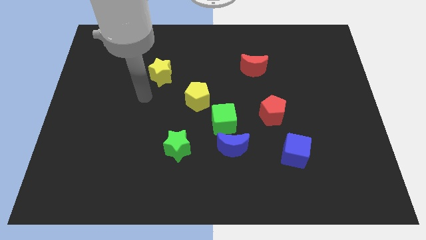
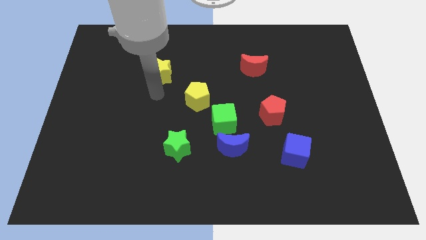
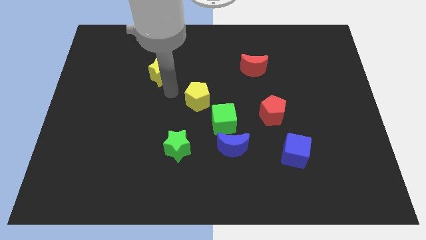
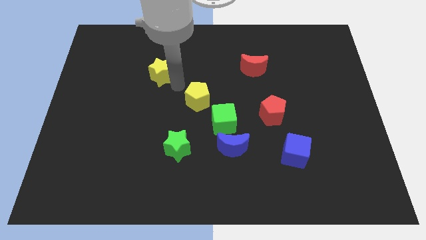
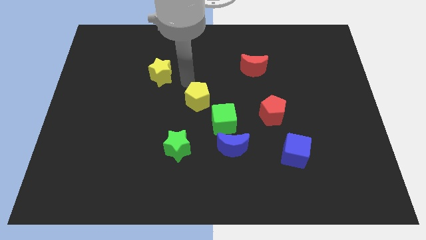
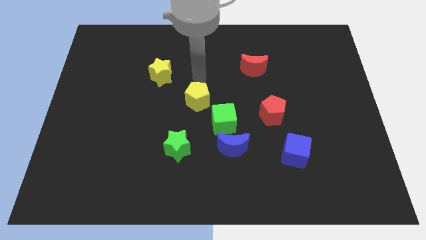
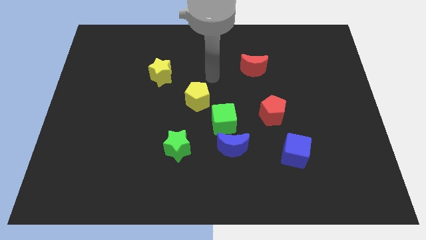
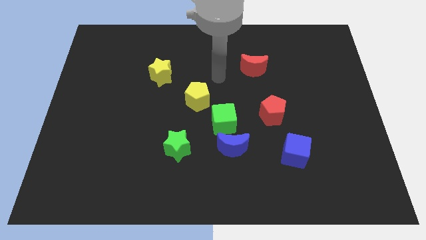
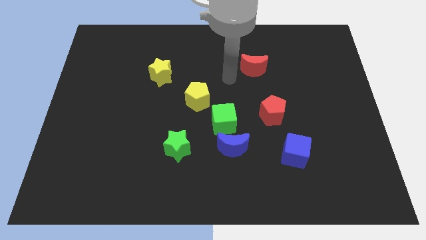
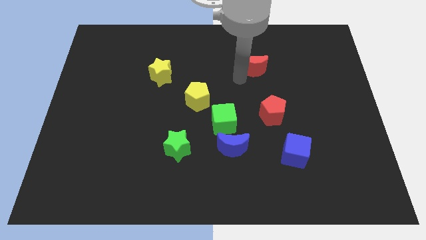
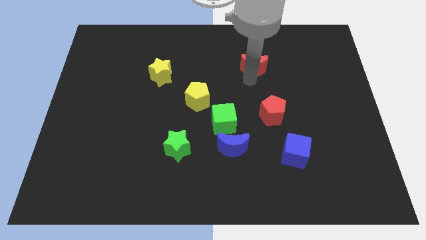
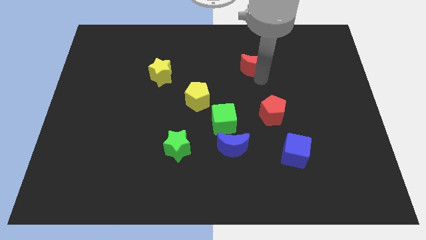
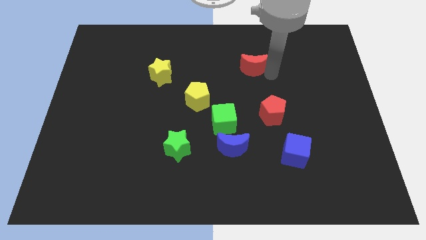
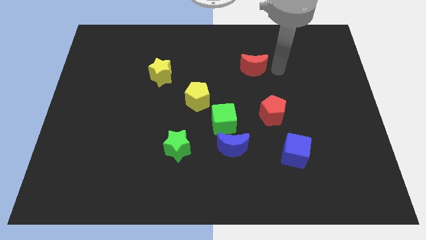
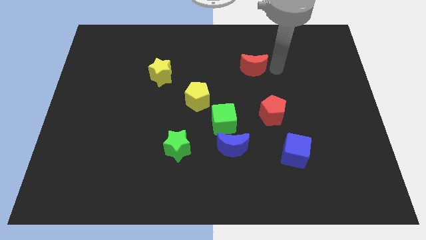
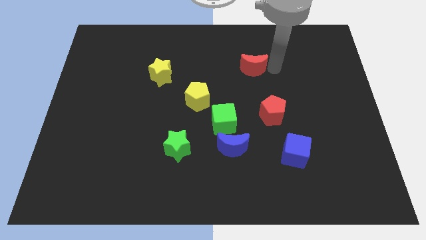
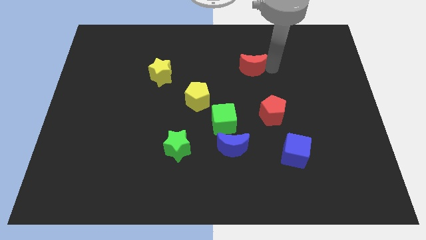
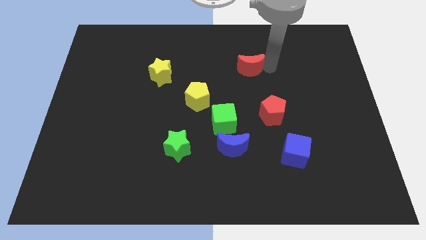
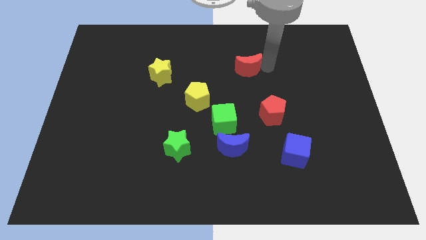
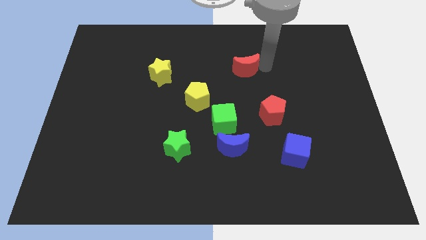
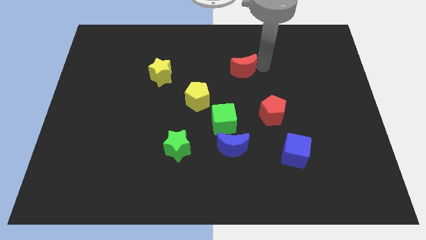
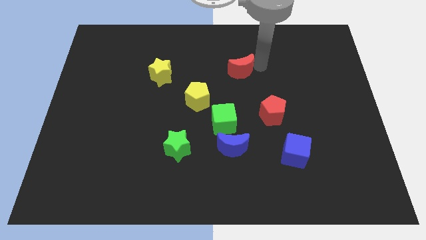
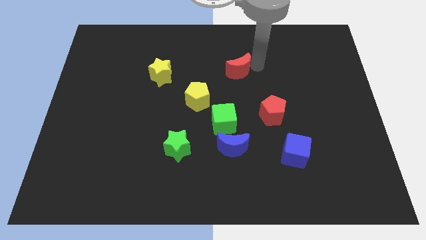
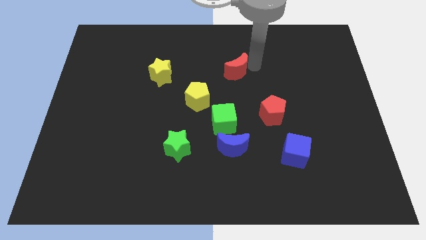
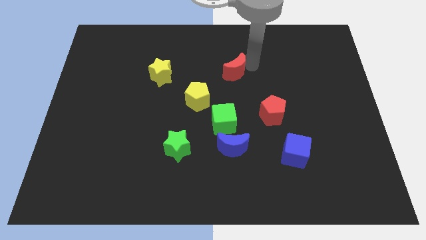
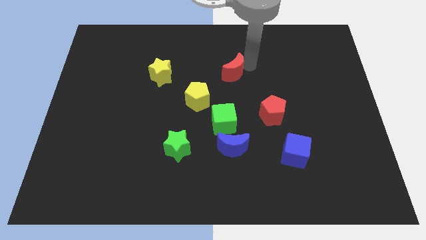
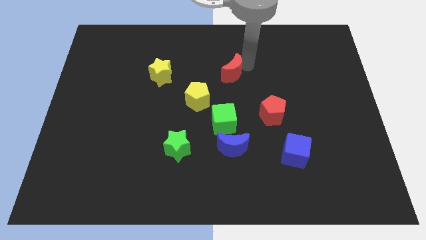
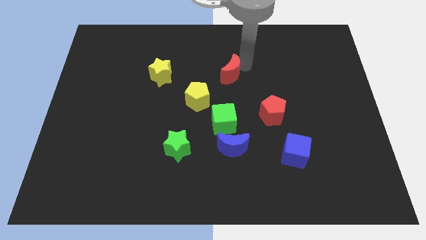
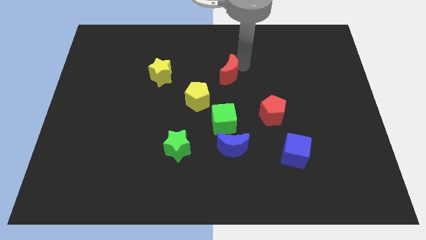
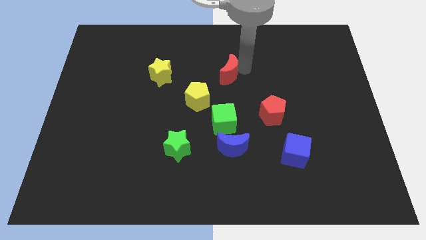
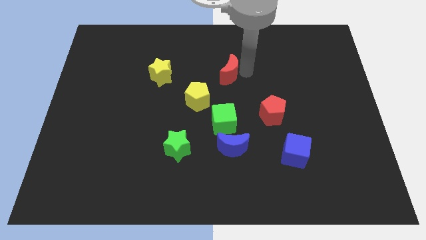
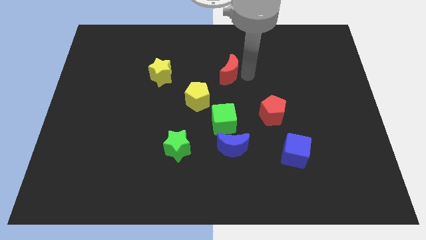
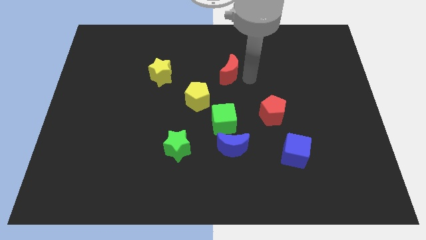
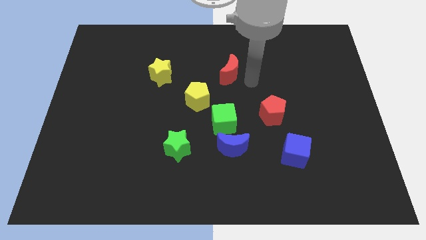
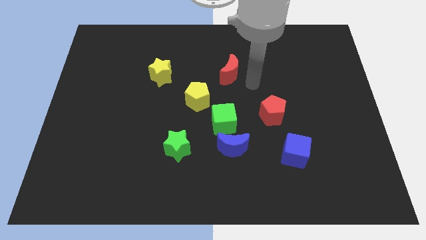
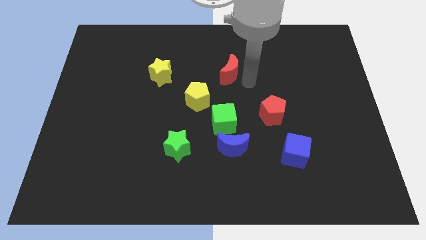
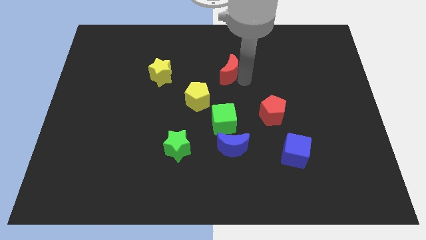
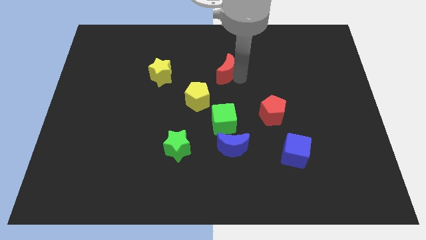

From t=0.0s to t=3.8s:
move the red moon a little to the left

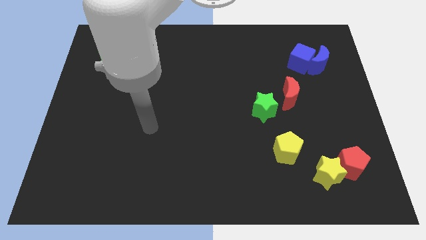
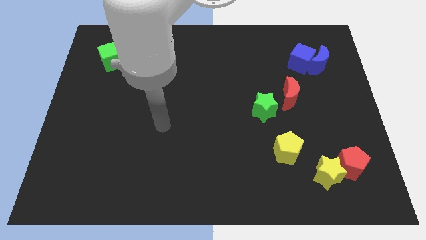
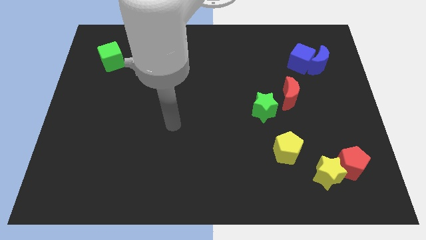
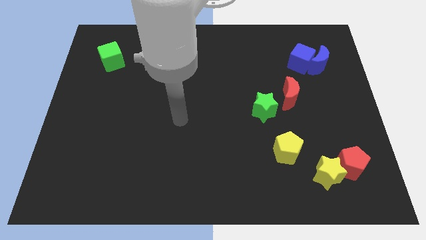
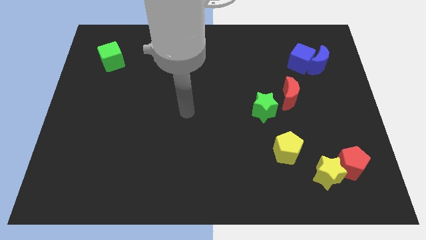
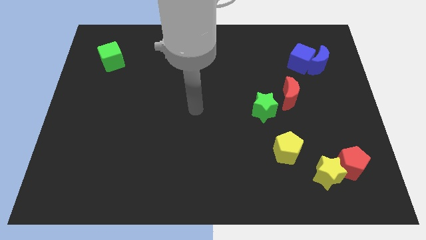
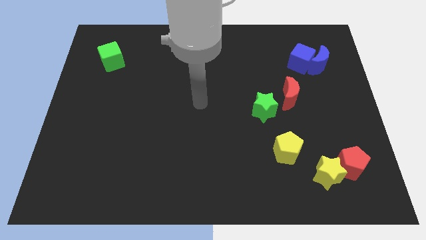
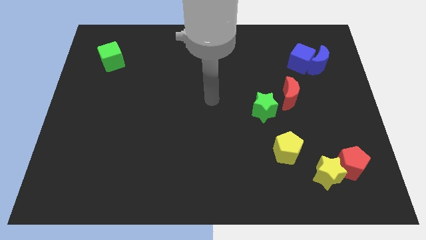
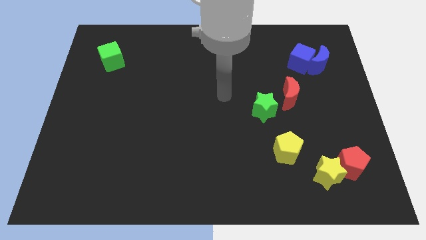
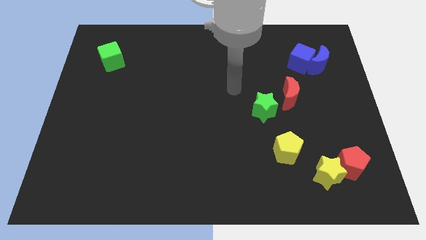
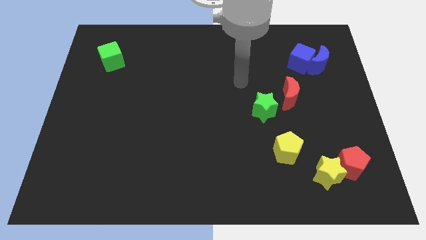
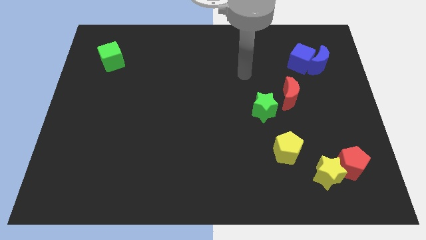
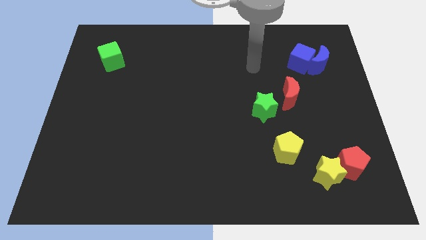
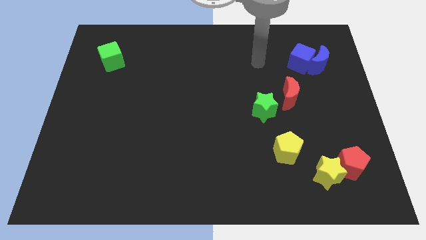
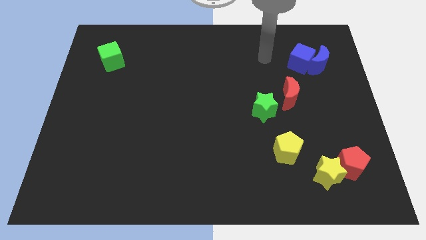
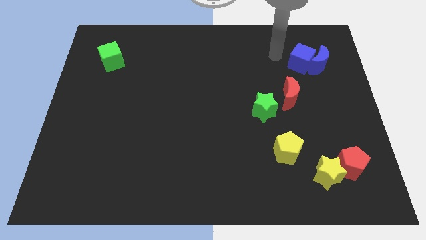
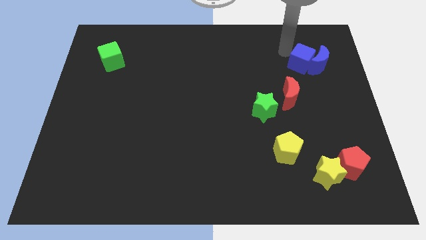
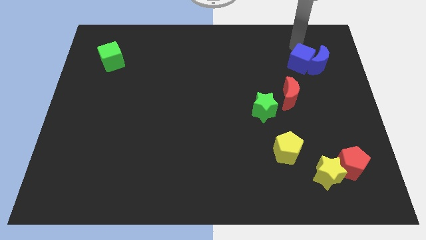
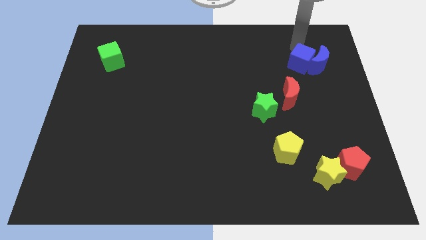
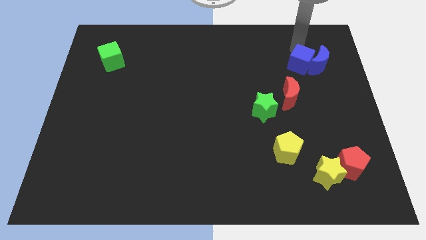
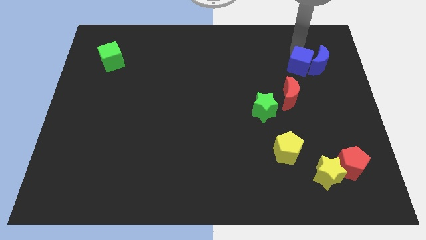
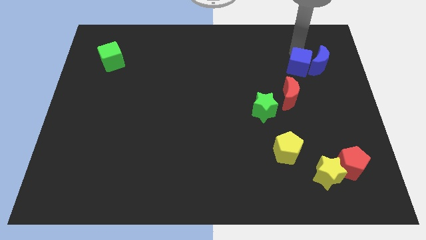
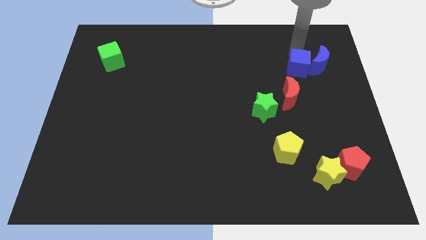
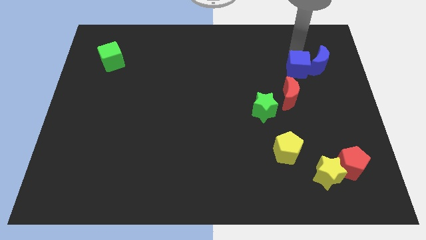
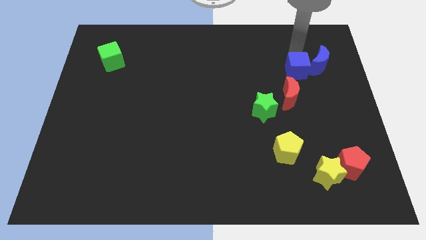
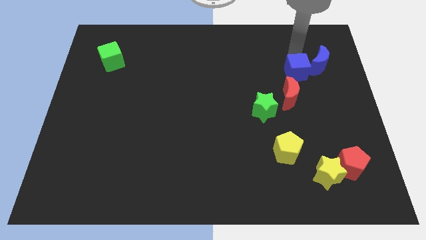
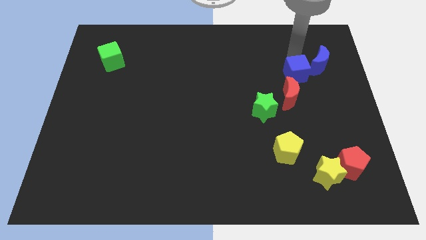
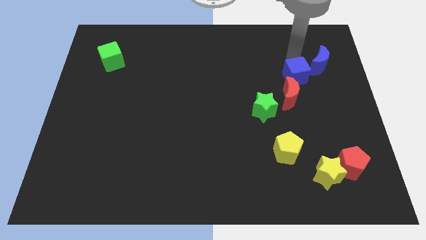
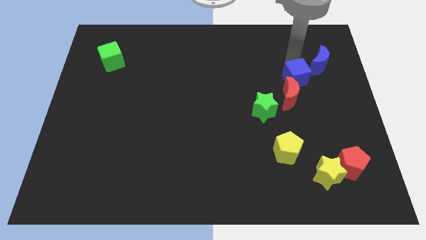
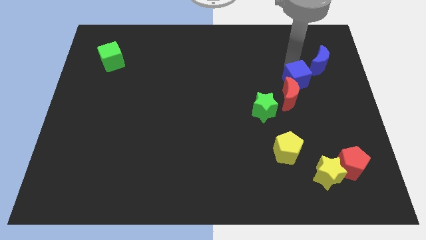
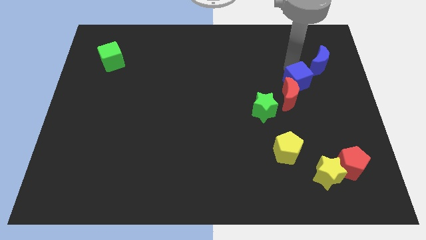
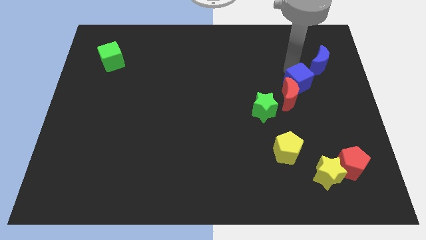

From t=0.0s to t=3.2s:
slightly slide the blue cube down

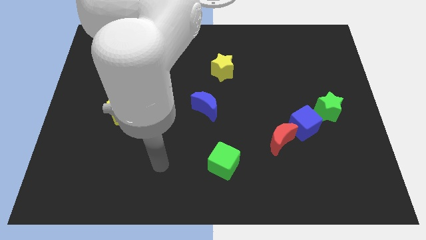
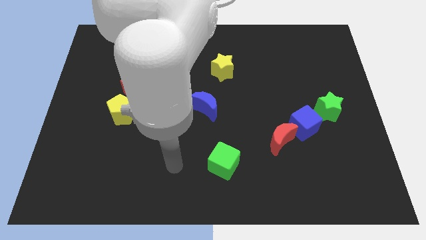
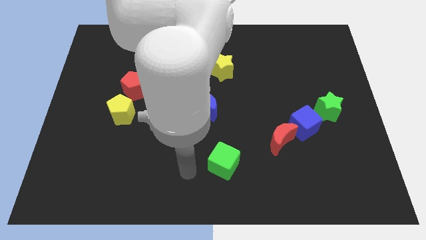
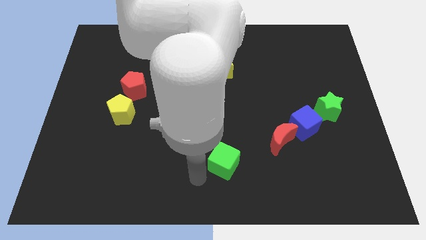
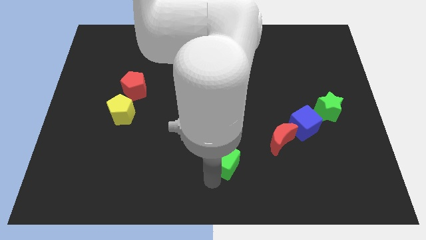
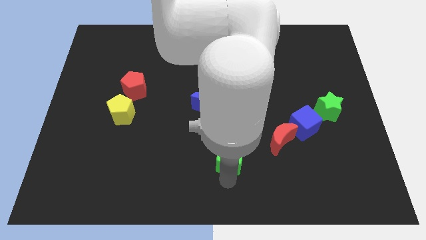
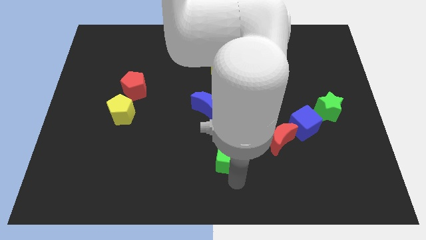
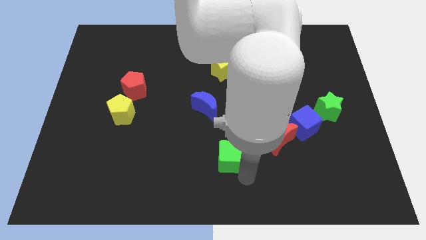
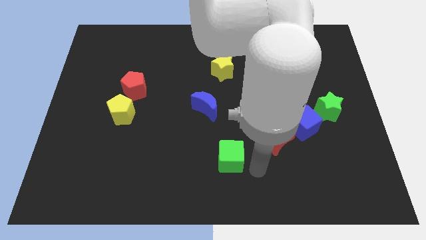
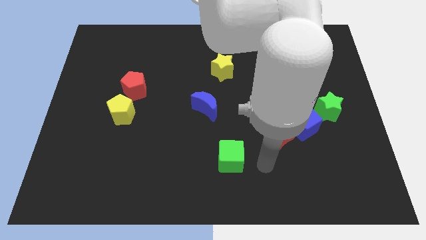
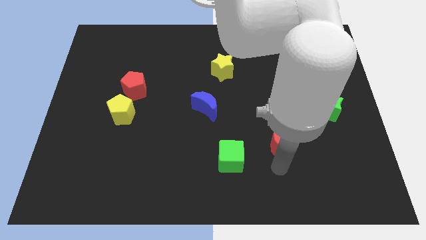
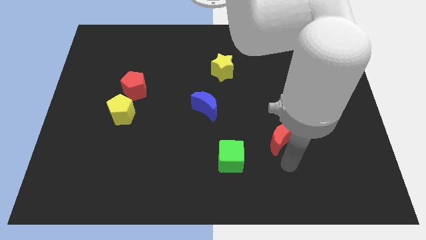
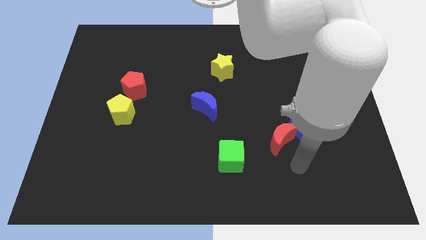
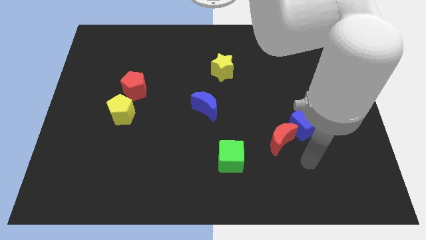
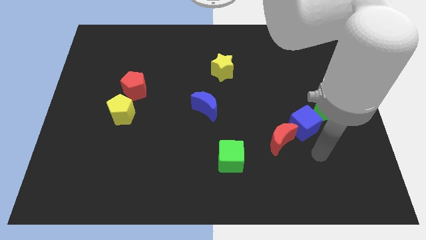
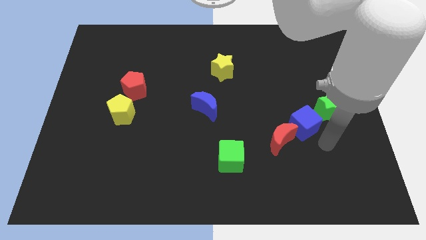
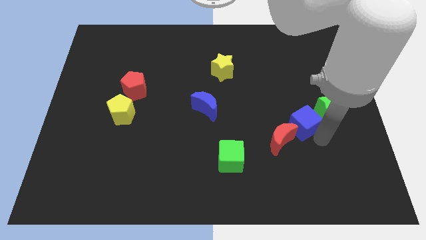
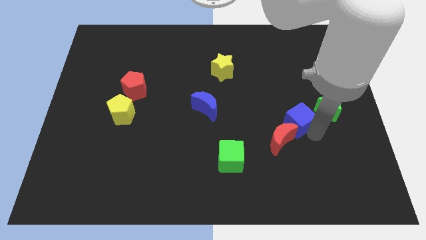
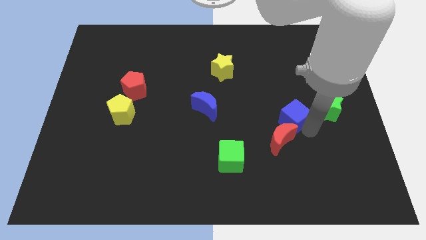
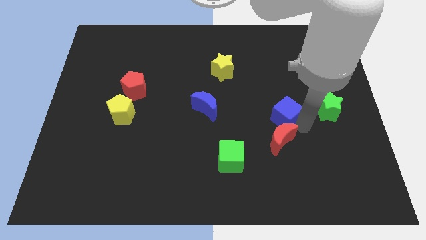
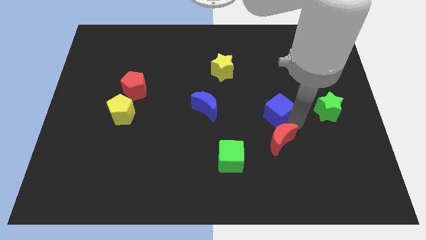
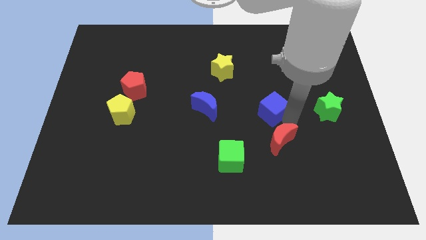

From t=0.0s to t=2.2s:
slightly slide the blue cube up and then to the left
